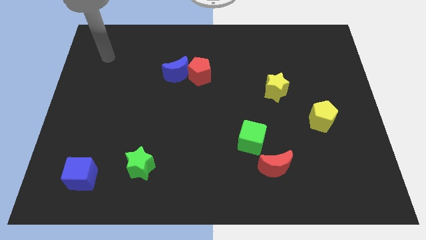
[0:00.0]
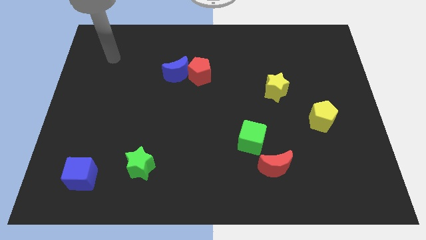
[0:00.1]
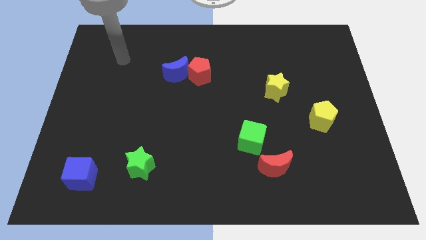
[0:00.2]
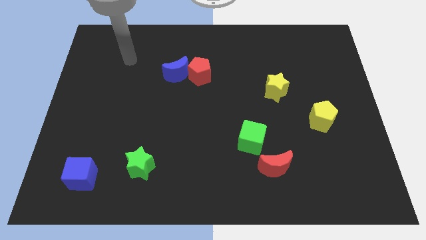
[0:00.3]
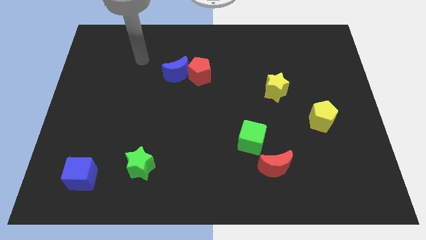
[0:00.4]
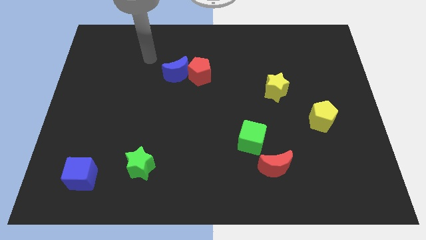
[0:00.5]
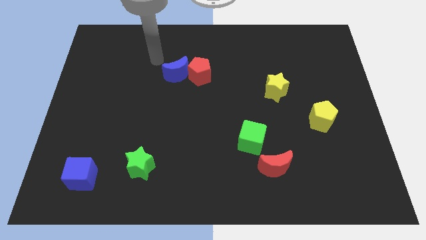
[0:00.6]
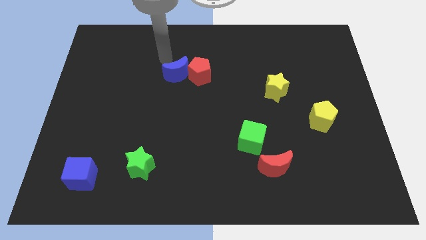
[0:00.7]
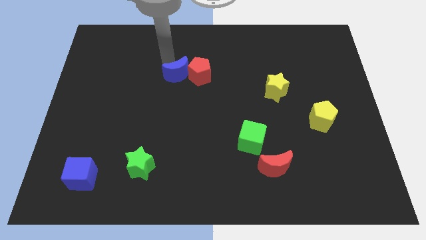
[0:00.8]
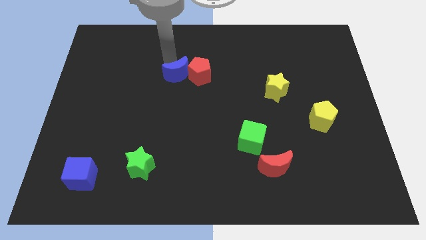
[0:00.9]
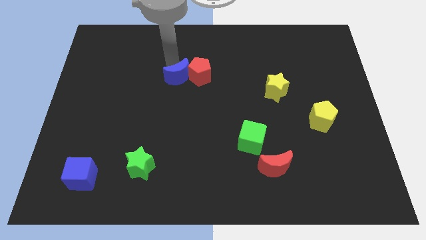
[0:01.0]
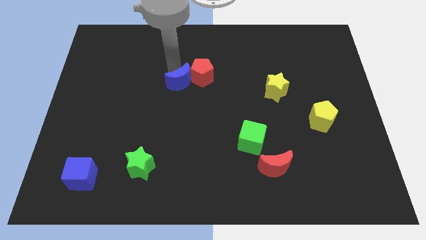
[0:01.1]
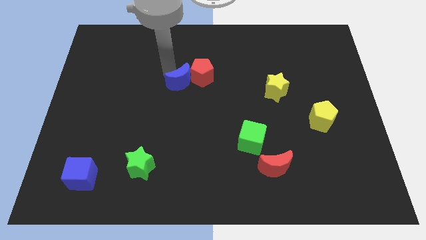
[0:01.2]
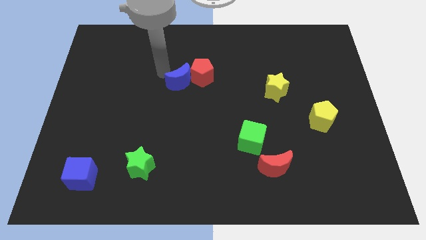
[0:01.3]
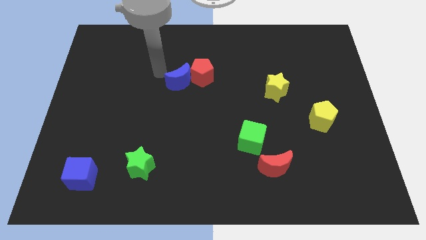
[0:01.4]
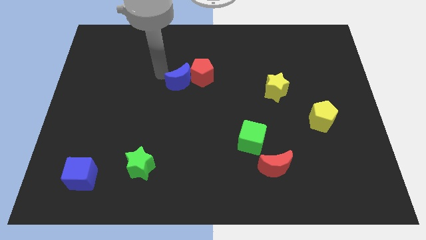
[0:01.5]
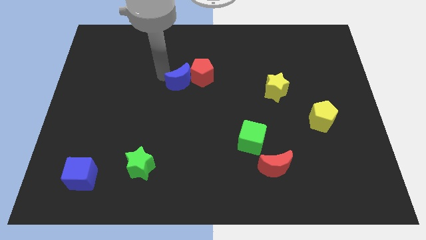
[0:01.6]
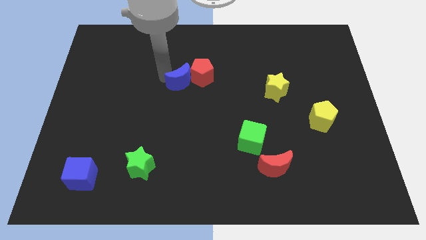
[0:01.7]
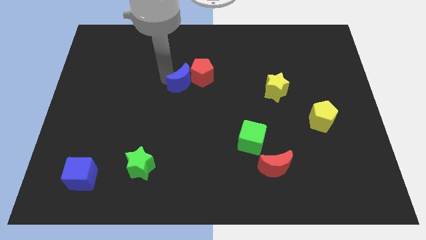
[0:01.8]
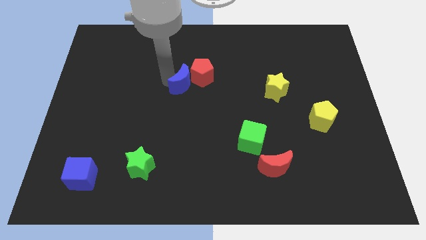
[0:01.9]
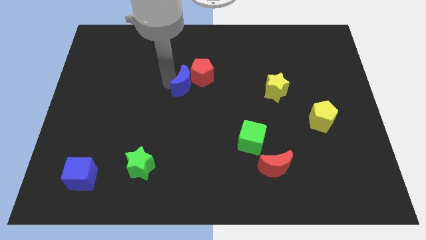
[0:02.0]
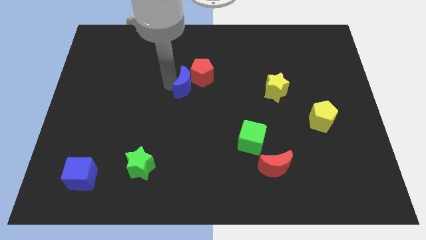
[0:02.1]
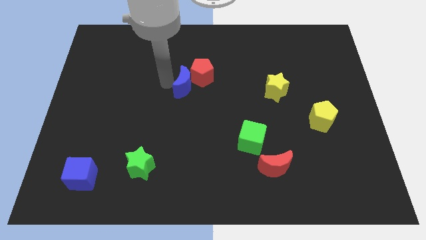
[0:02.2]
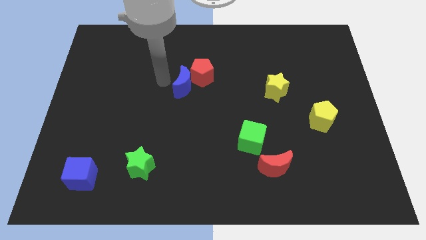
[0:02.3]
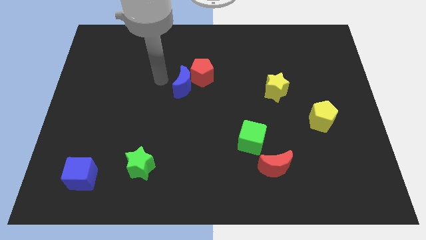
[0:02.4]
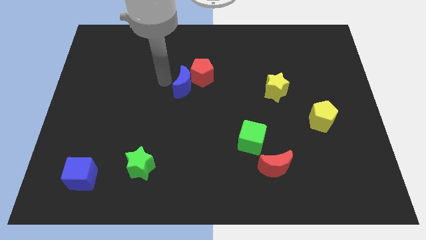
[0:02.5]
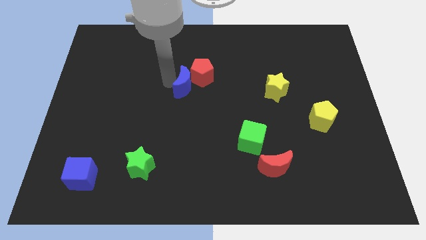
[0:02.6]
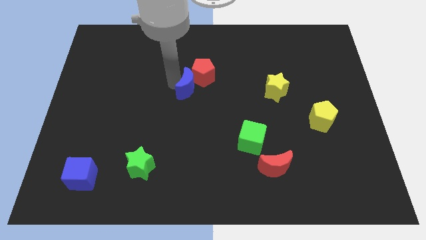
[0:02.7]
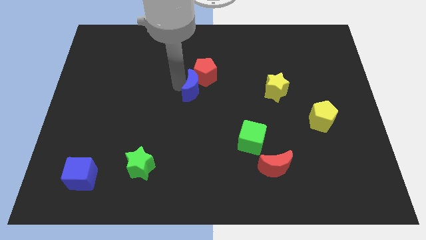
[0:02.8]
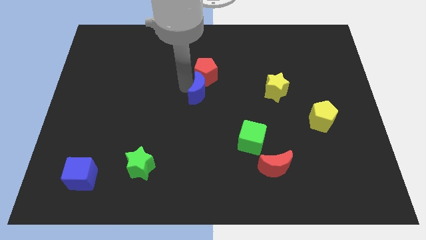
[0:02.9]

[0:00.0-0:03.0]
push the blue moon slightly down and then right

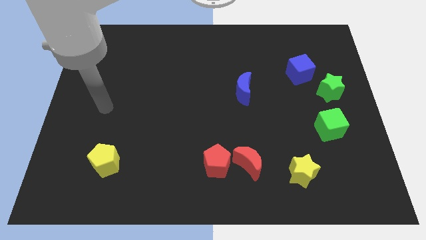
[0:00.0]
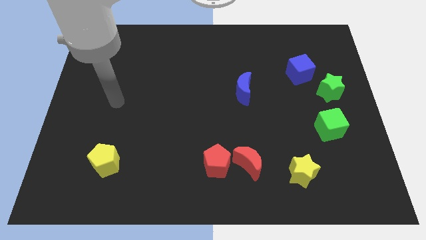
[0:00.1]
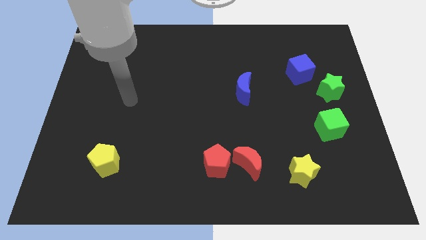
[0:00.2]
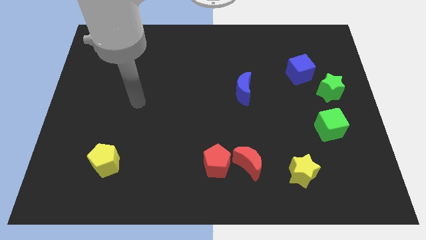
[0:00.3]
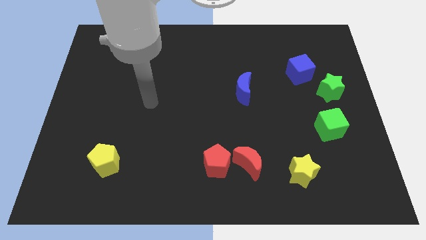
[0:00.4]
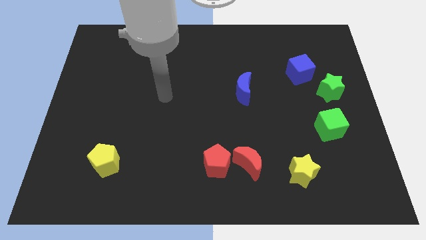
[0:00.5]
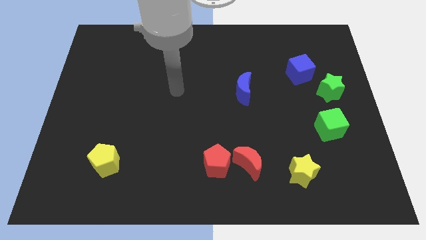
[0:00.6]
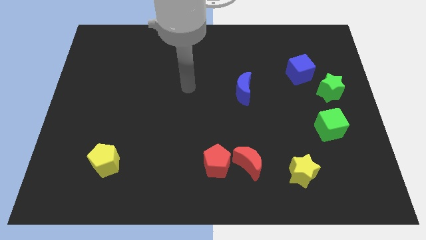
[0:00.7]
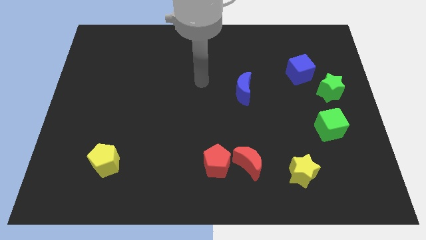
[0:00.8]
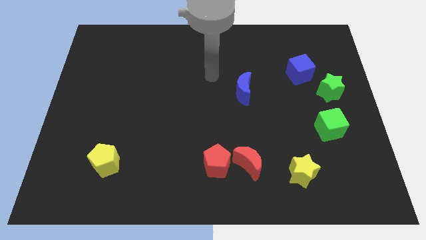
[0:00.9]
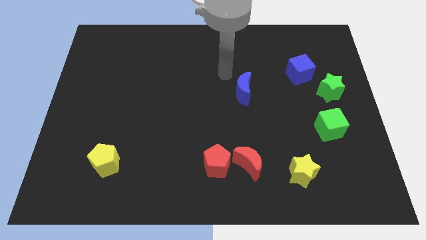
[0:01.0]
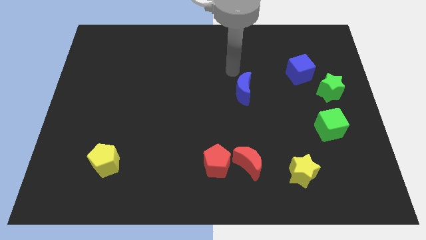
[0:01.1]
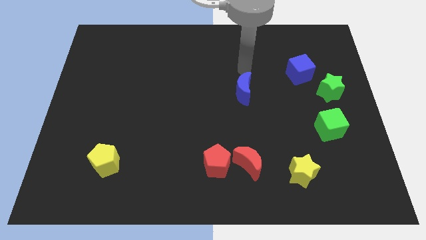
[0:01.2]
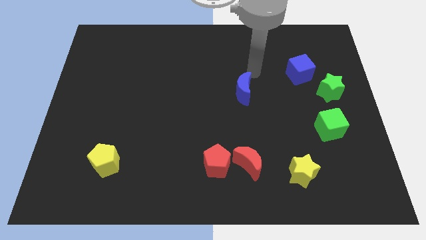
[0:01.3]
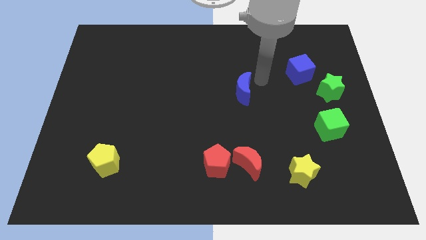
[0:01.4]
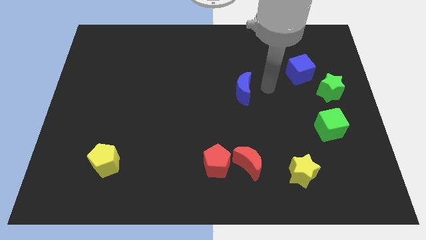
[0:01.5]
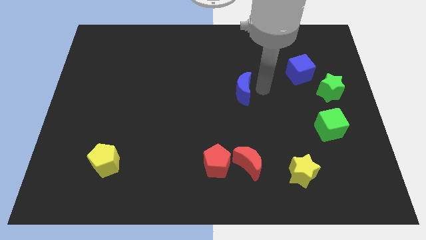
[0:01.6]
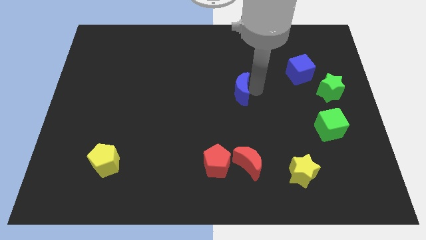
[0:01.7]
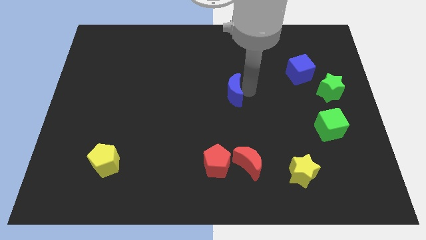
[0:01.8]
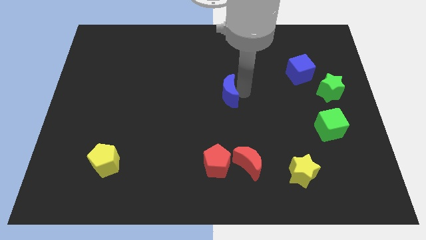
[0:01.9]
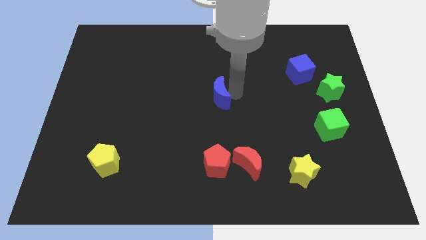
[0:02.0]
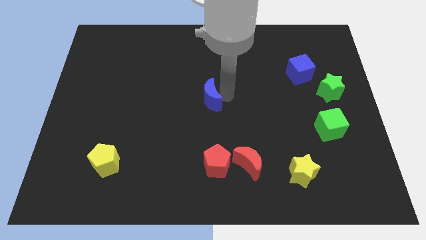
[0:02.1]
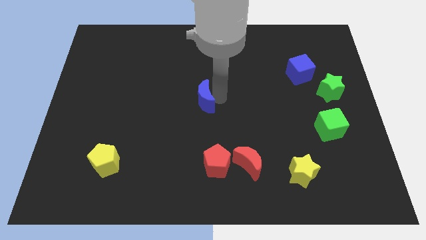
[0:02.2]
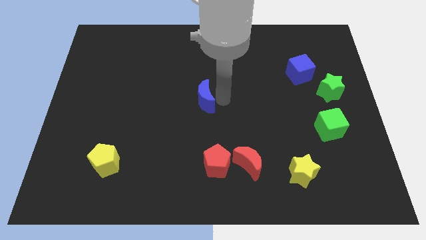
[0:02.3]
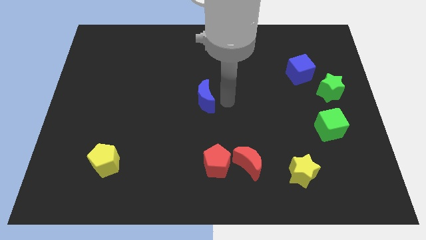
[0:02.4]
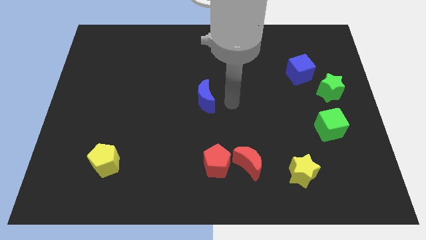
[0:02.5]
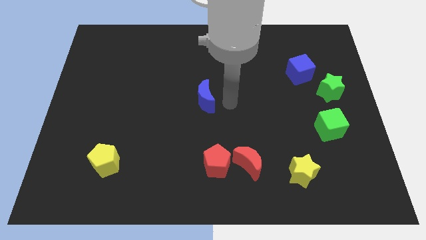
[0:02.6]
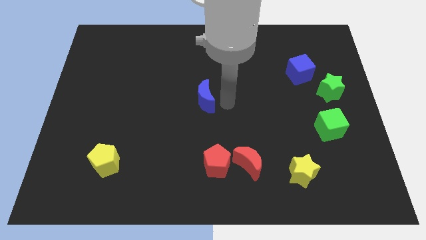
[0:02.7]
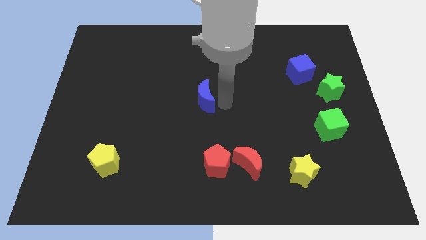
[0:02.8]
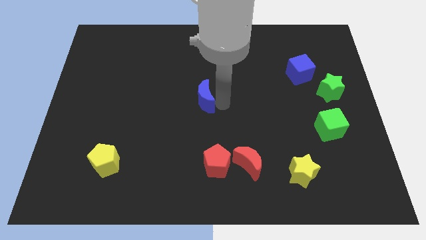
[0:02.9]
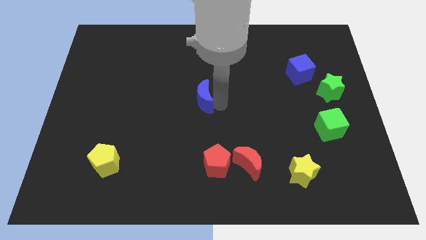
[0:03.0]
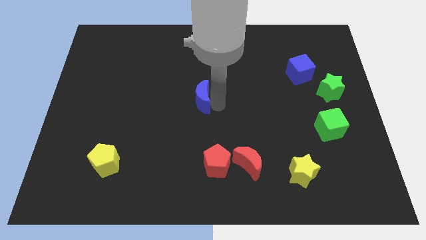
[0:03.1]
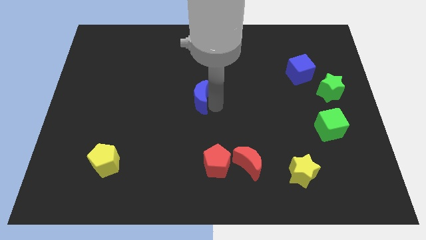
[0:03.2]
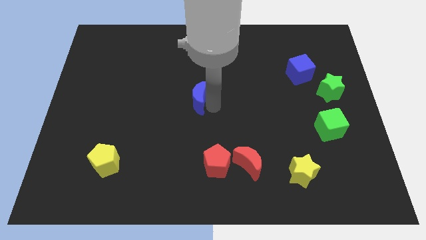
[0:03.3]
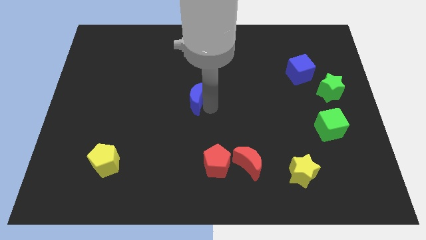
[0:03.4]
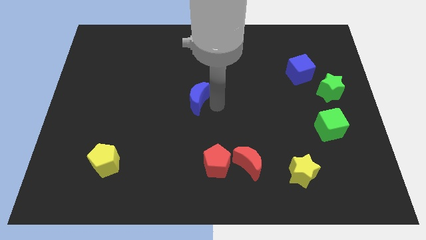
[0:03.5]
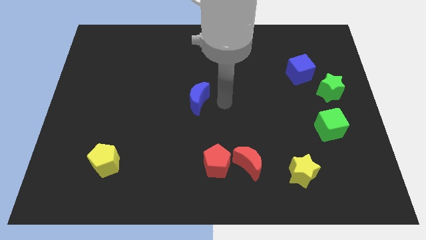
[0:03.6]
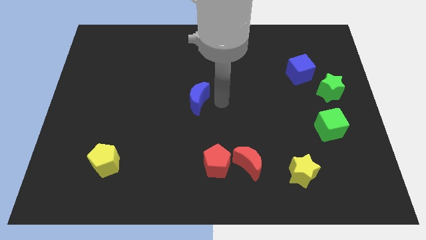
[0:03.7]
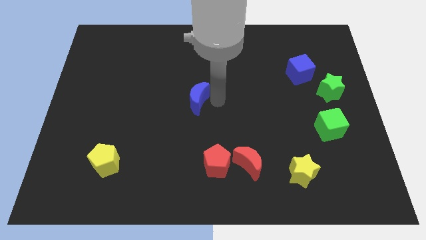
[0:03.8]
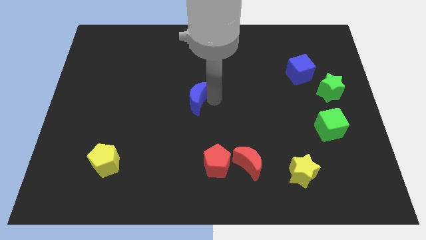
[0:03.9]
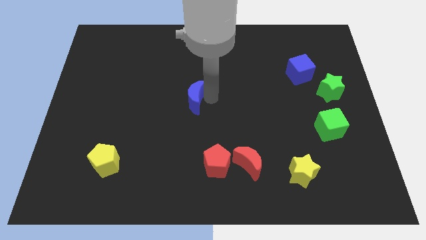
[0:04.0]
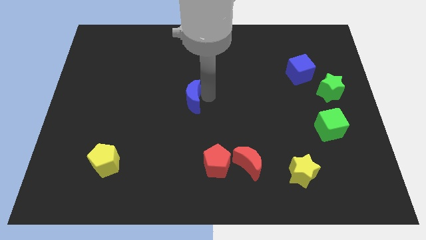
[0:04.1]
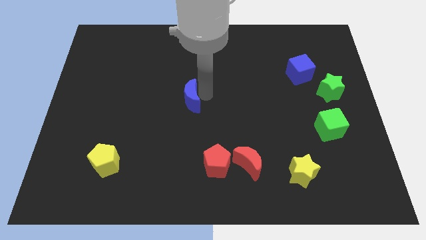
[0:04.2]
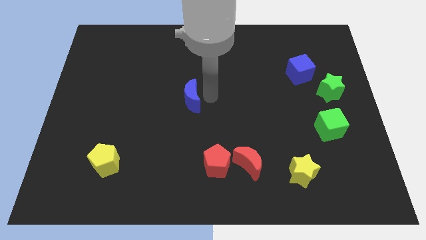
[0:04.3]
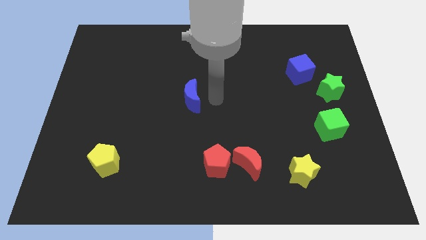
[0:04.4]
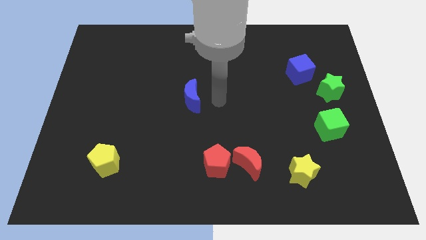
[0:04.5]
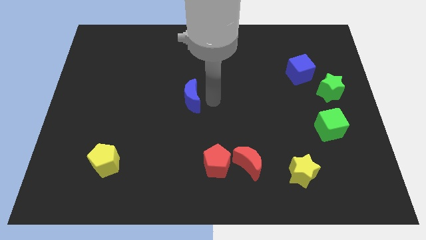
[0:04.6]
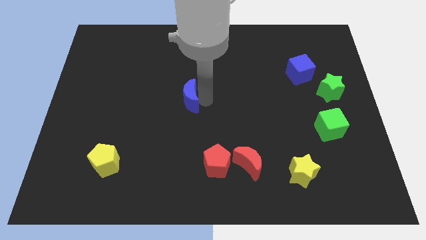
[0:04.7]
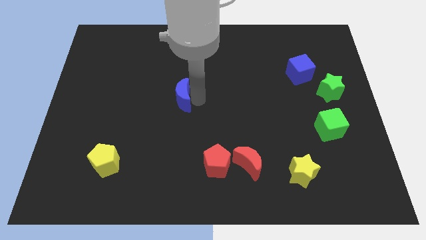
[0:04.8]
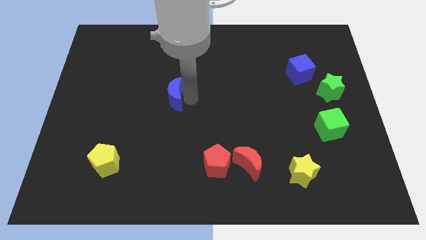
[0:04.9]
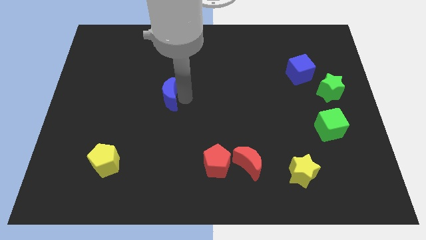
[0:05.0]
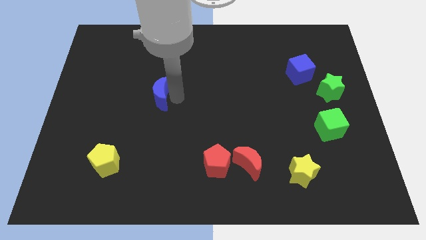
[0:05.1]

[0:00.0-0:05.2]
move the blue moon to the left
